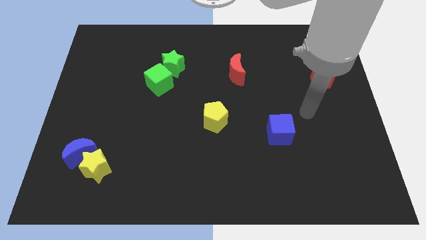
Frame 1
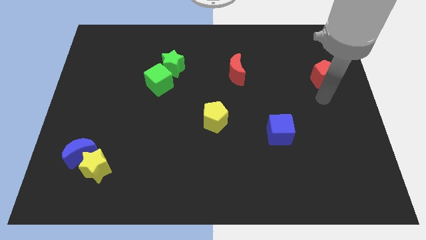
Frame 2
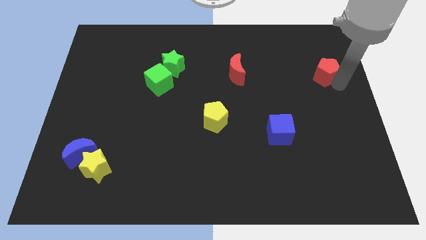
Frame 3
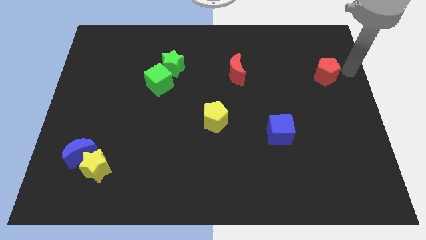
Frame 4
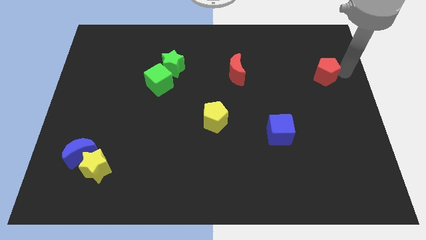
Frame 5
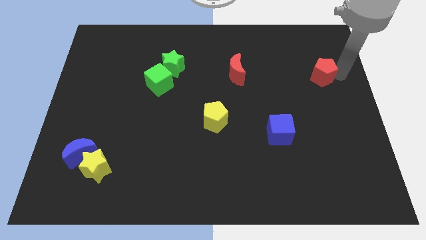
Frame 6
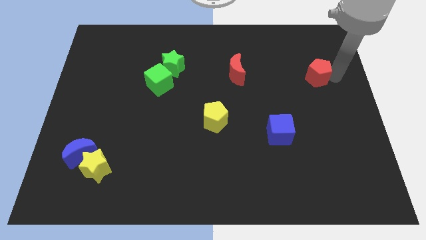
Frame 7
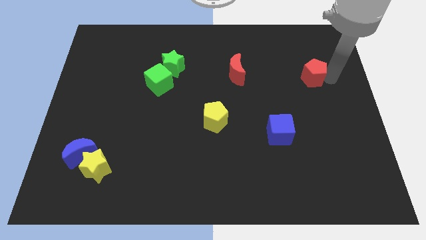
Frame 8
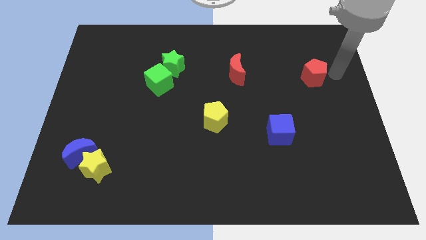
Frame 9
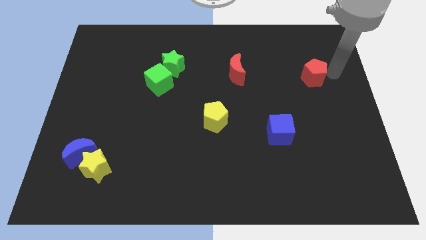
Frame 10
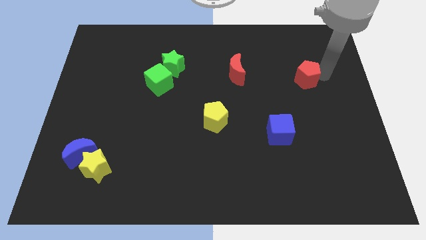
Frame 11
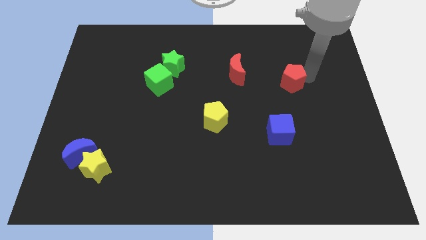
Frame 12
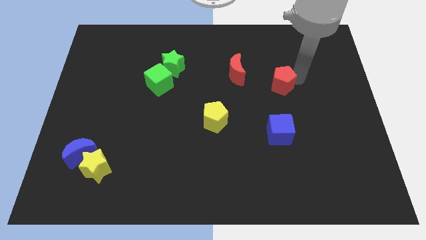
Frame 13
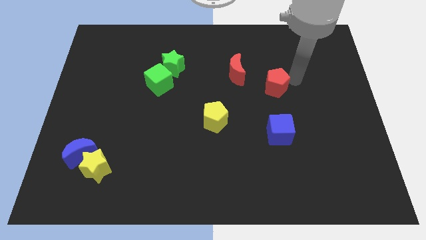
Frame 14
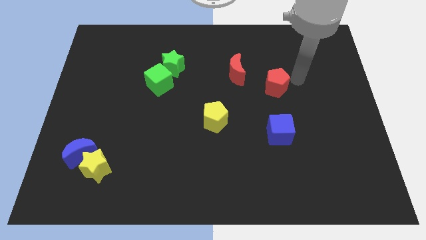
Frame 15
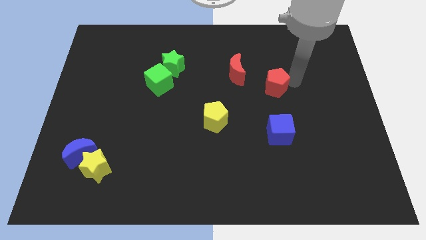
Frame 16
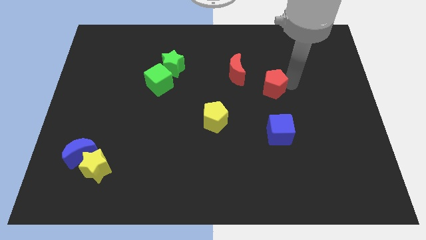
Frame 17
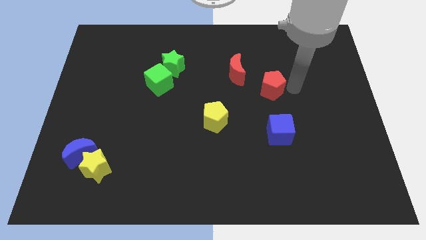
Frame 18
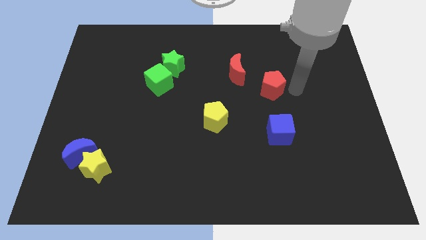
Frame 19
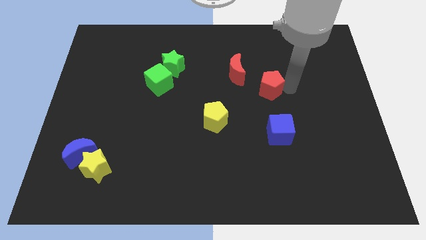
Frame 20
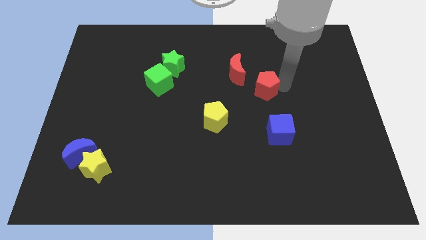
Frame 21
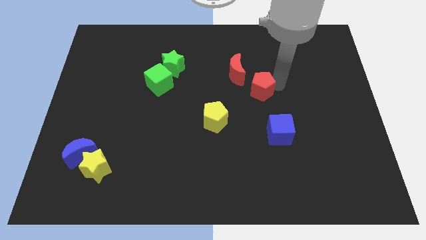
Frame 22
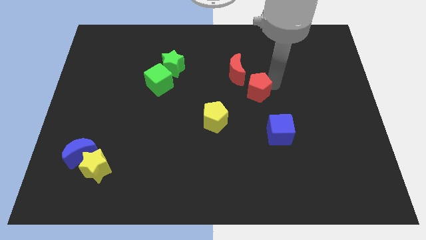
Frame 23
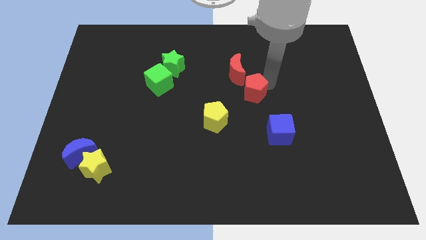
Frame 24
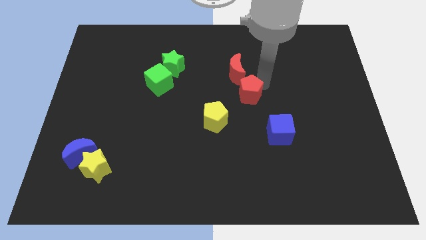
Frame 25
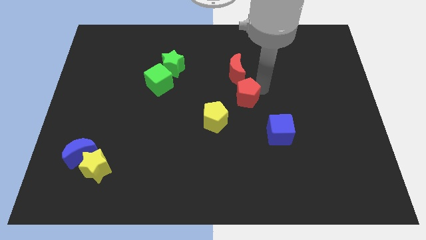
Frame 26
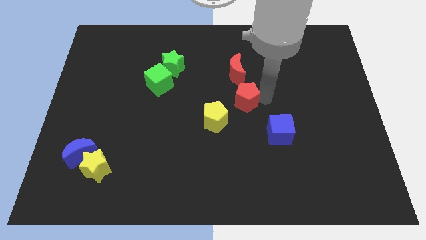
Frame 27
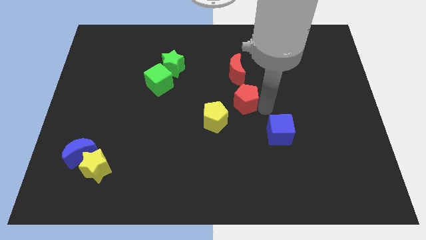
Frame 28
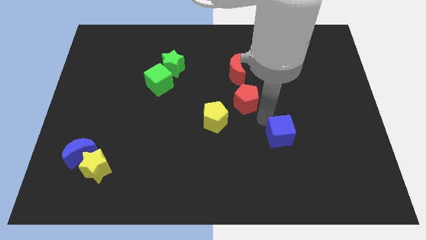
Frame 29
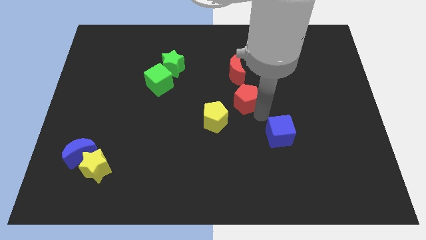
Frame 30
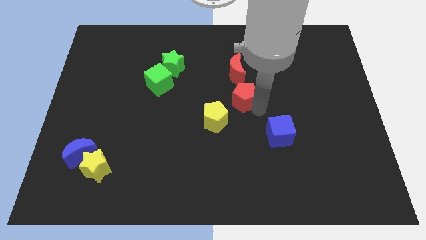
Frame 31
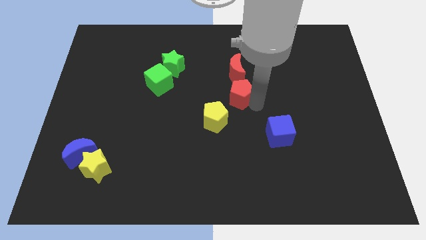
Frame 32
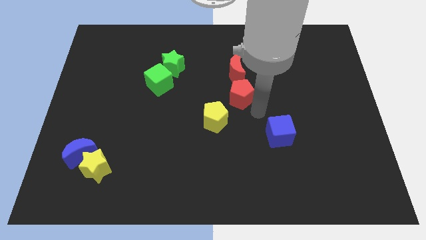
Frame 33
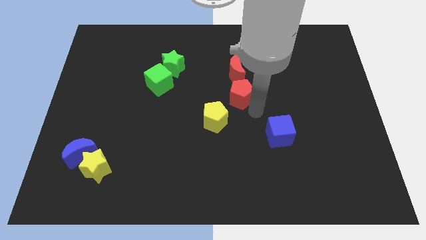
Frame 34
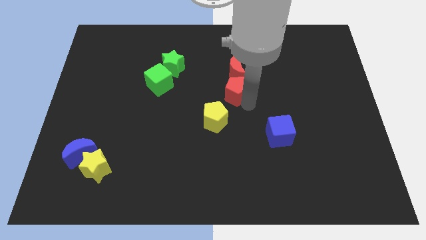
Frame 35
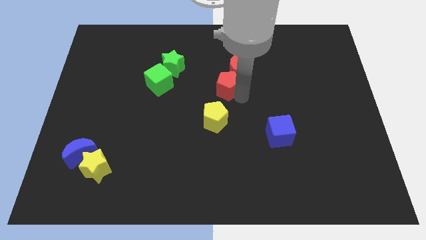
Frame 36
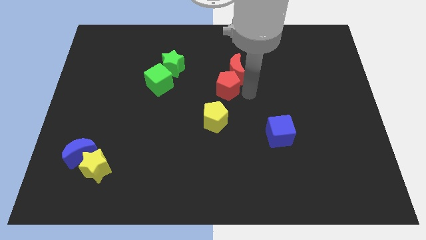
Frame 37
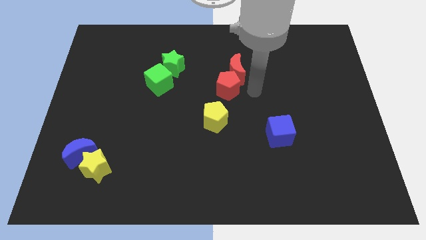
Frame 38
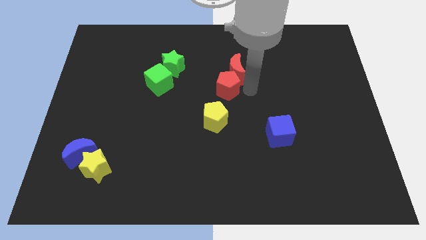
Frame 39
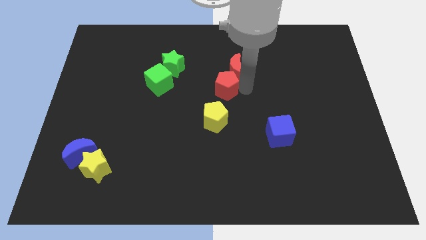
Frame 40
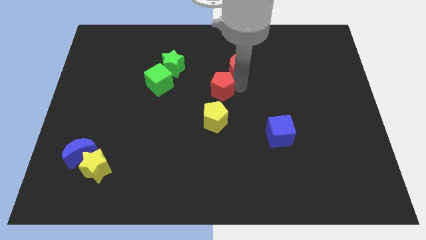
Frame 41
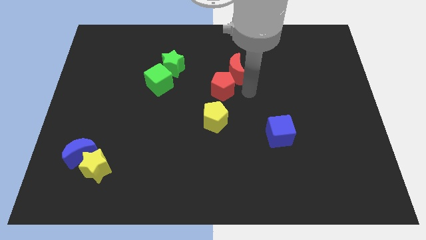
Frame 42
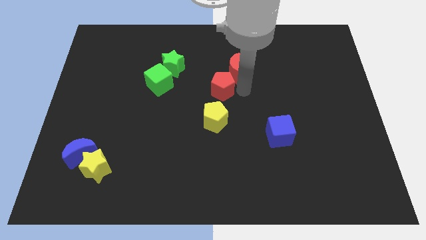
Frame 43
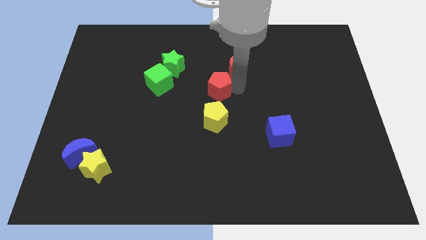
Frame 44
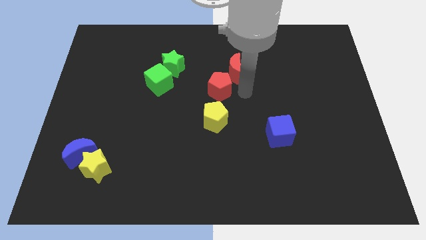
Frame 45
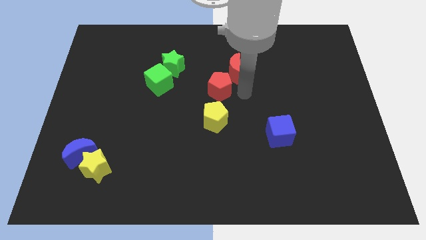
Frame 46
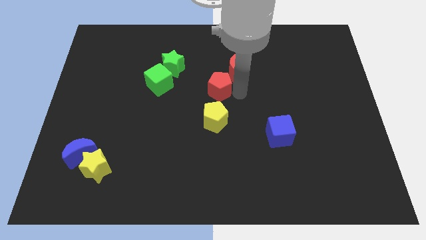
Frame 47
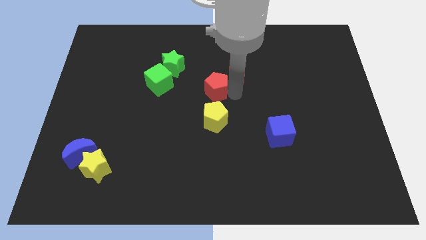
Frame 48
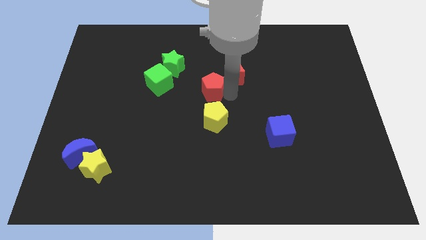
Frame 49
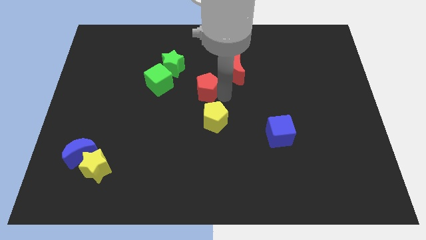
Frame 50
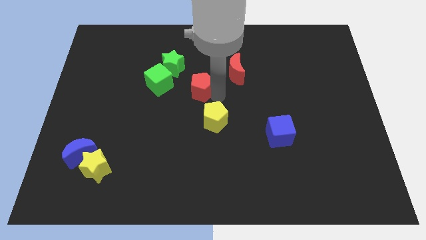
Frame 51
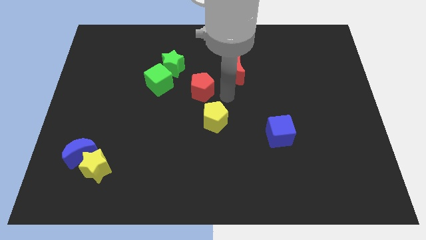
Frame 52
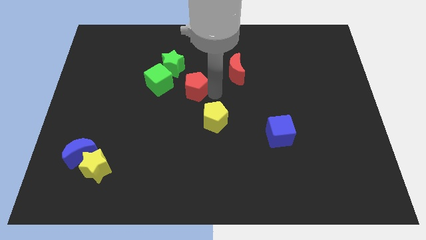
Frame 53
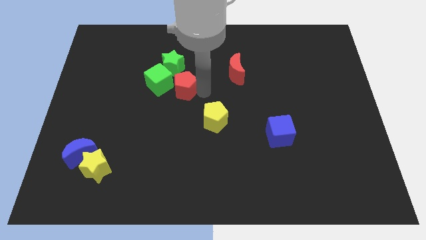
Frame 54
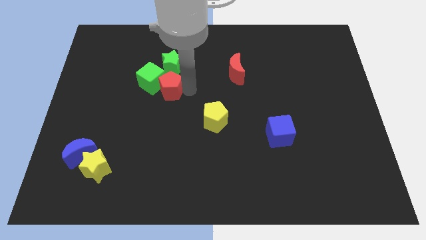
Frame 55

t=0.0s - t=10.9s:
put the red pentagon close to the green cube

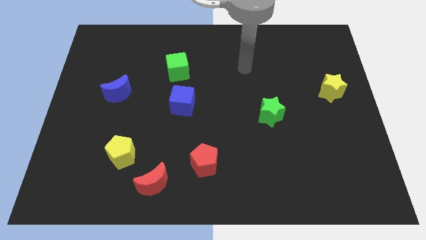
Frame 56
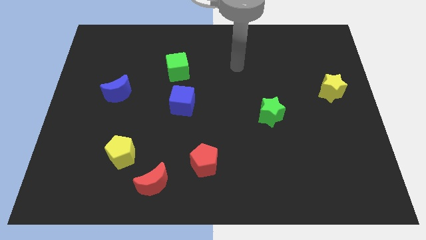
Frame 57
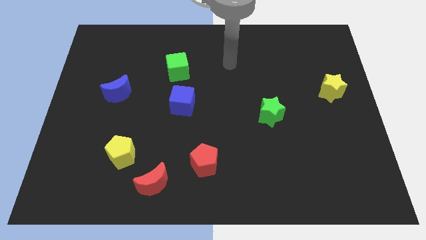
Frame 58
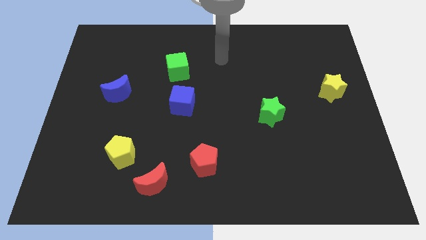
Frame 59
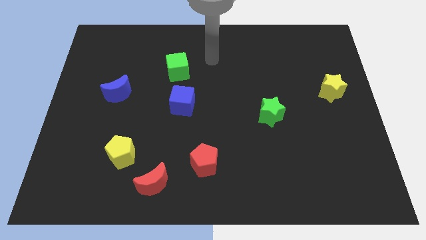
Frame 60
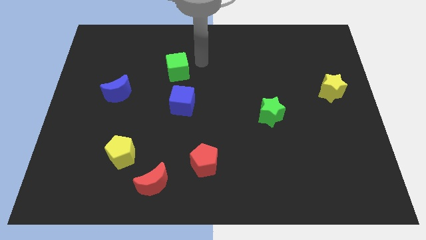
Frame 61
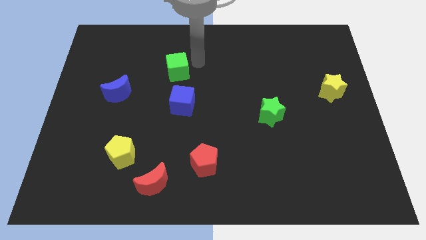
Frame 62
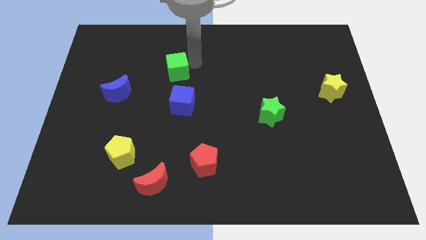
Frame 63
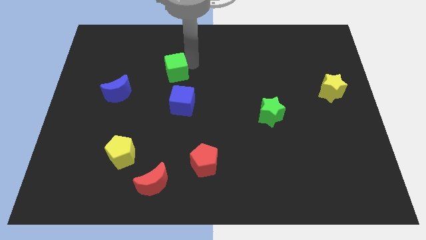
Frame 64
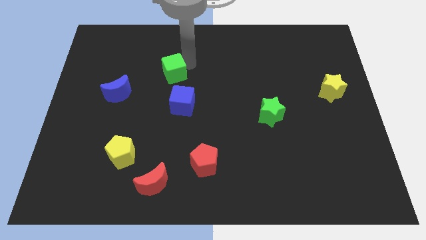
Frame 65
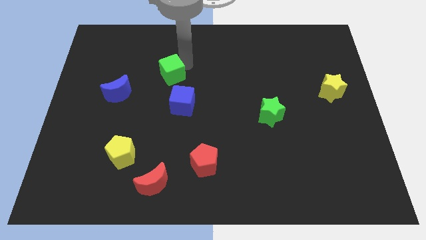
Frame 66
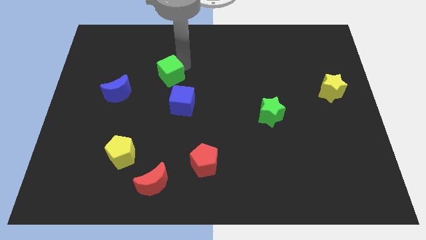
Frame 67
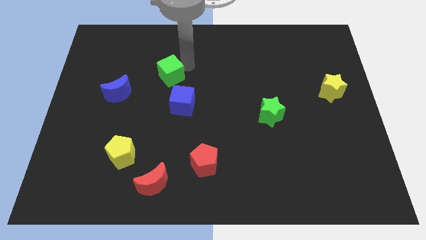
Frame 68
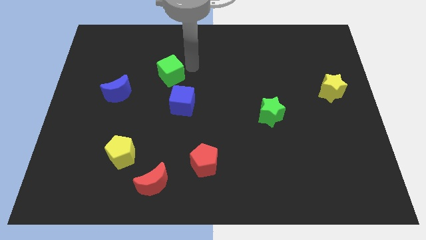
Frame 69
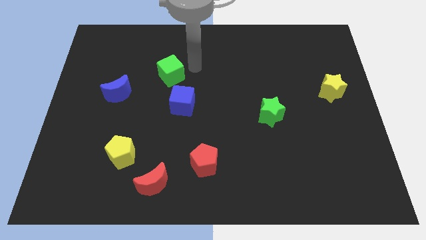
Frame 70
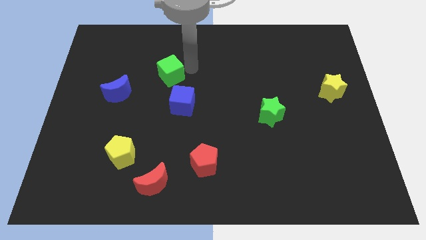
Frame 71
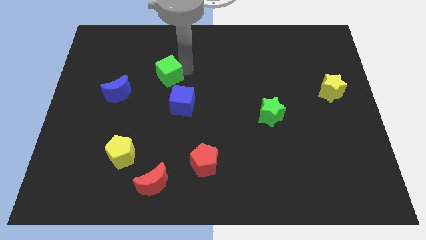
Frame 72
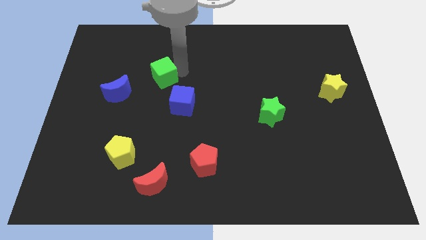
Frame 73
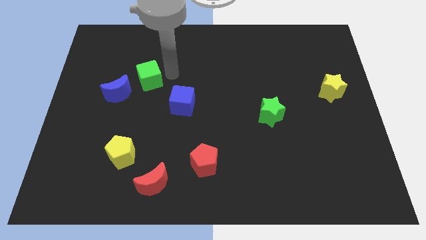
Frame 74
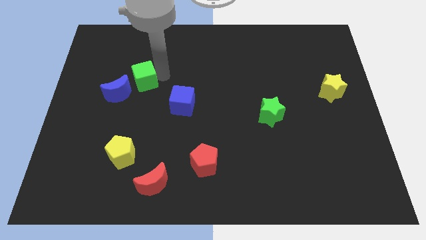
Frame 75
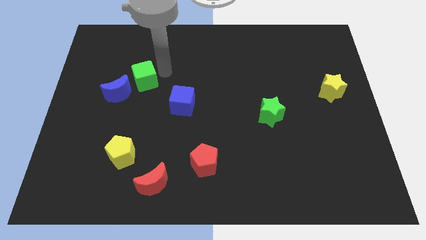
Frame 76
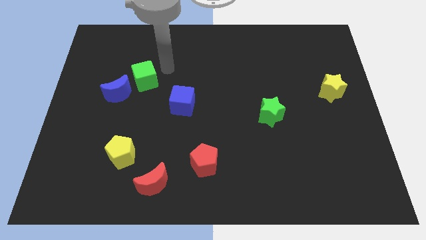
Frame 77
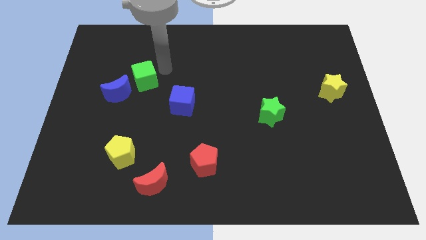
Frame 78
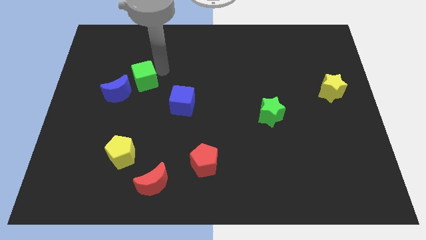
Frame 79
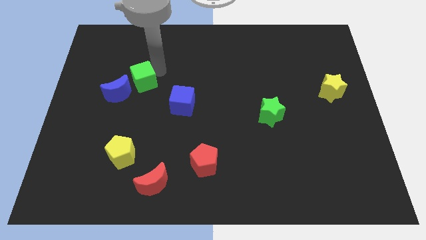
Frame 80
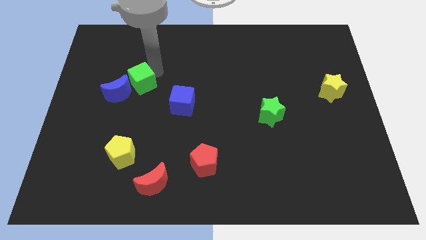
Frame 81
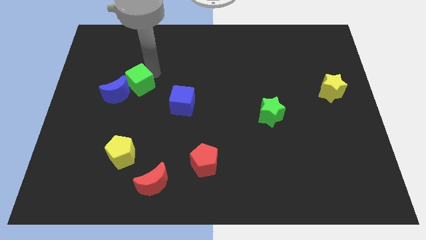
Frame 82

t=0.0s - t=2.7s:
push the green cube towards the blue moon
